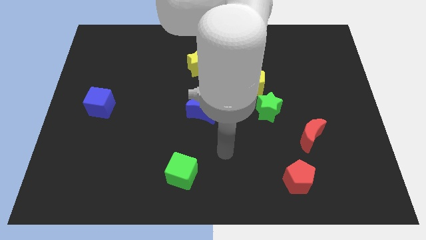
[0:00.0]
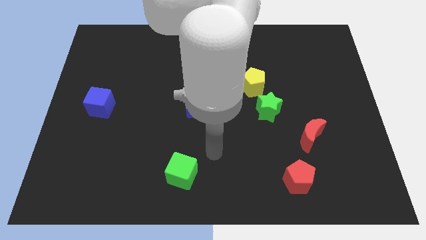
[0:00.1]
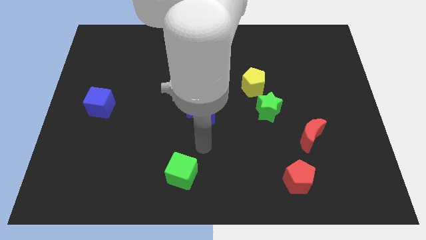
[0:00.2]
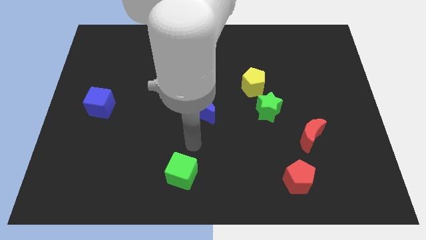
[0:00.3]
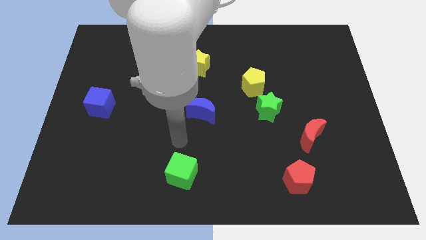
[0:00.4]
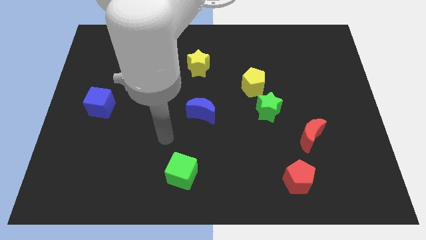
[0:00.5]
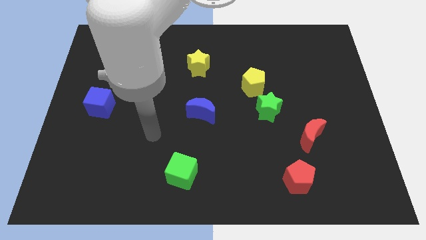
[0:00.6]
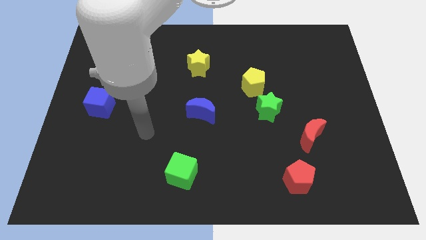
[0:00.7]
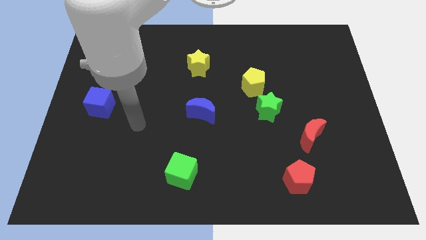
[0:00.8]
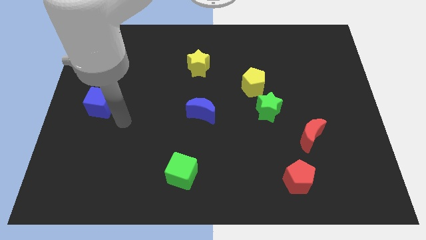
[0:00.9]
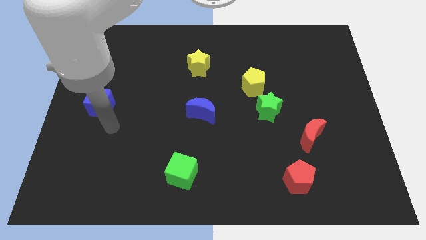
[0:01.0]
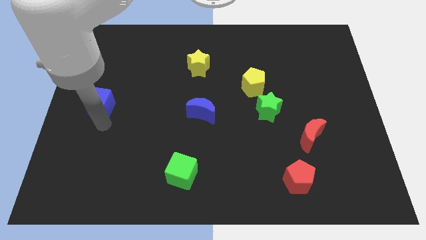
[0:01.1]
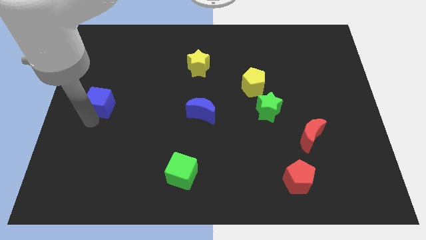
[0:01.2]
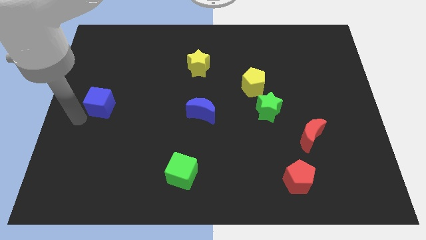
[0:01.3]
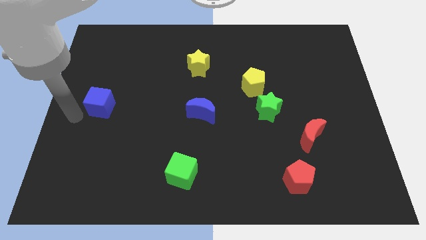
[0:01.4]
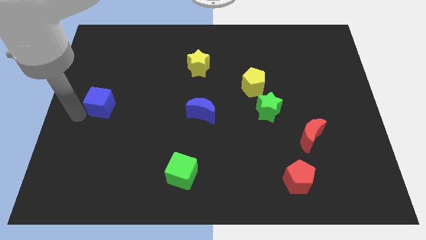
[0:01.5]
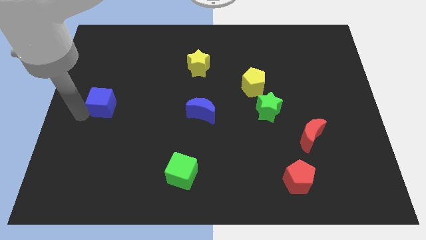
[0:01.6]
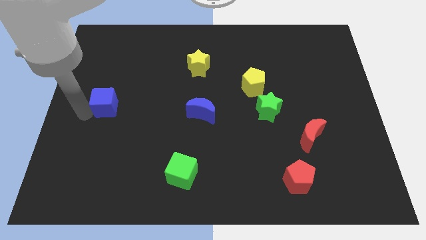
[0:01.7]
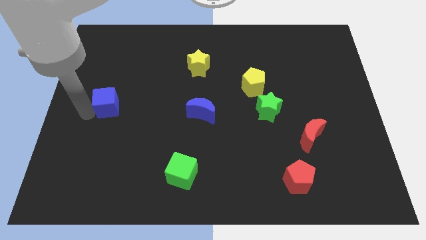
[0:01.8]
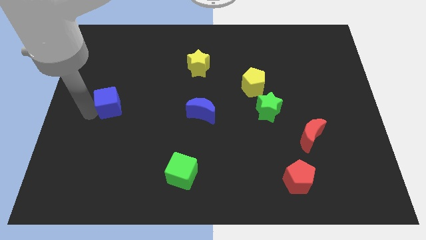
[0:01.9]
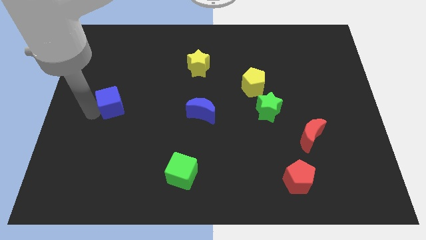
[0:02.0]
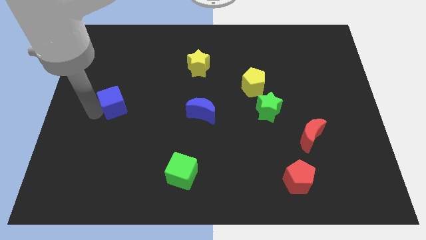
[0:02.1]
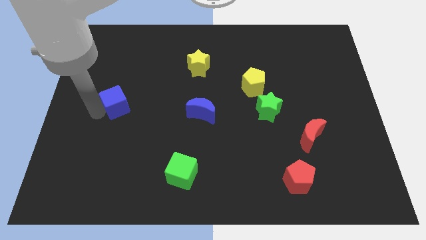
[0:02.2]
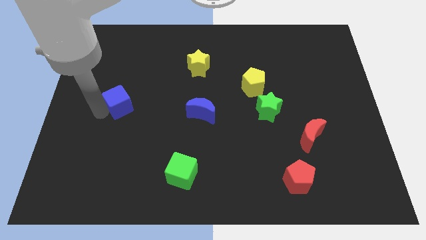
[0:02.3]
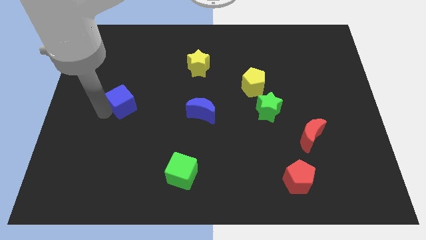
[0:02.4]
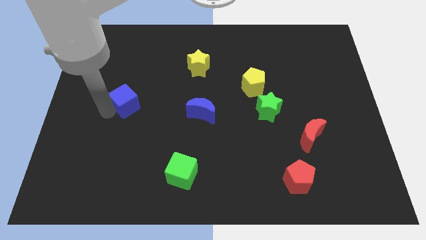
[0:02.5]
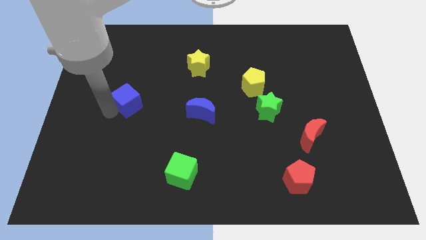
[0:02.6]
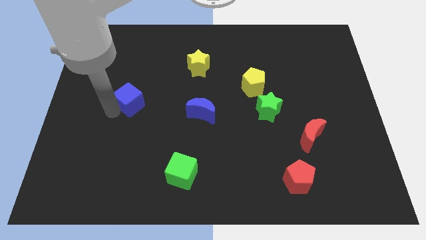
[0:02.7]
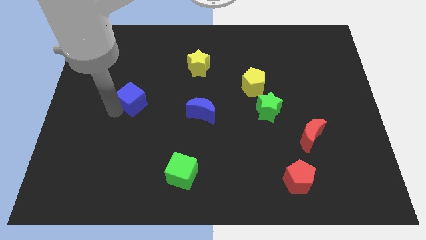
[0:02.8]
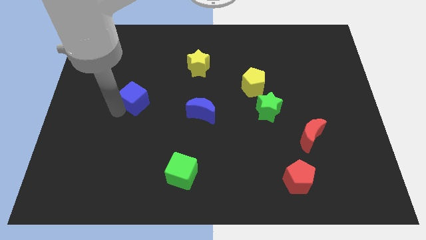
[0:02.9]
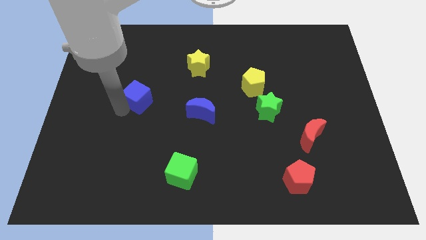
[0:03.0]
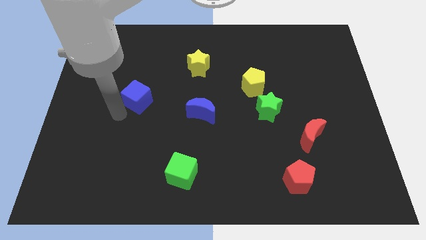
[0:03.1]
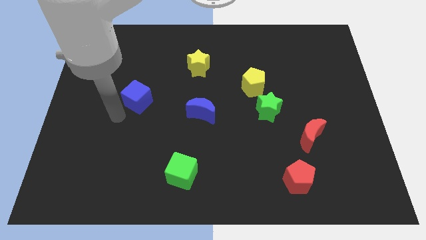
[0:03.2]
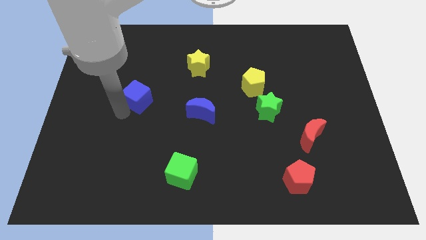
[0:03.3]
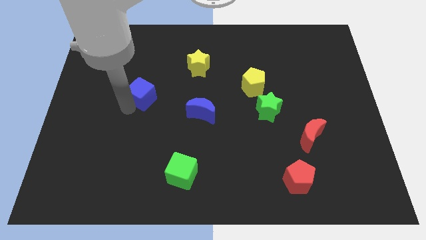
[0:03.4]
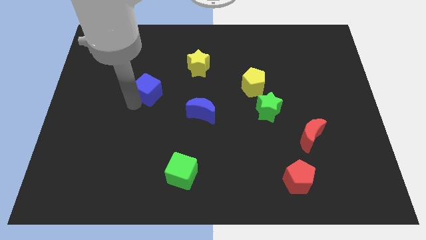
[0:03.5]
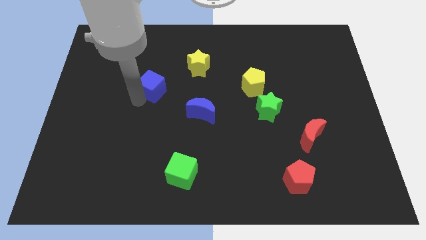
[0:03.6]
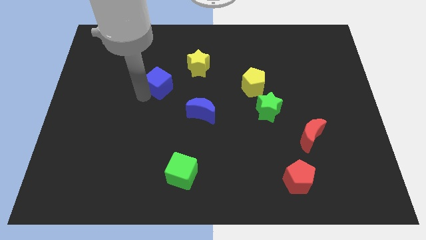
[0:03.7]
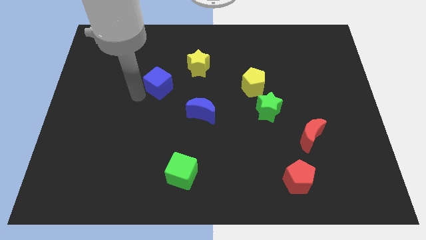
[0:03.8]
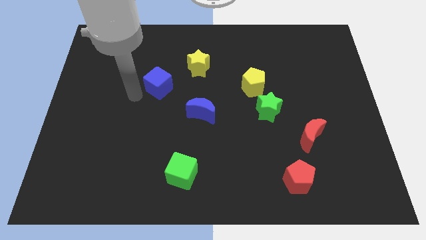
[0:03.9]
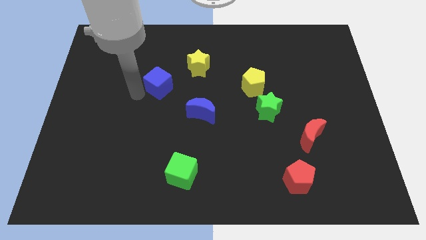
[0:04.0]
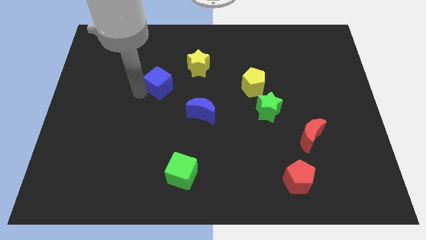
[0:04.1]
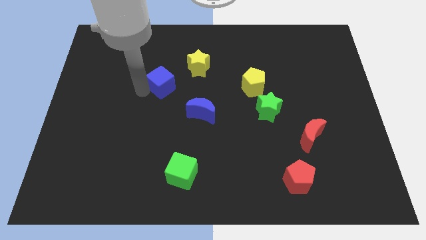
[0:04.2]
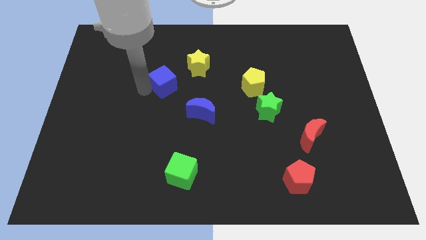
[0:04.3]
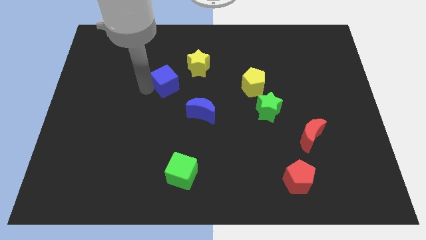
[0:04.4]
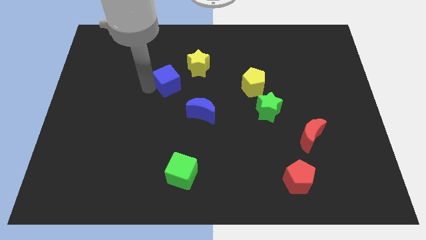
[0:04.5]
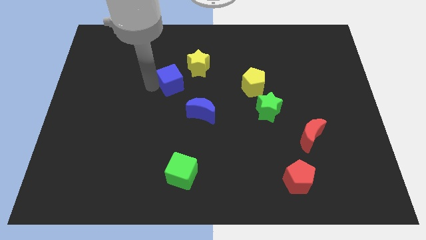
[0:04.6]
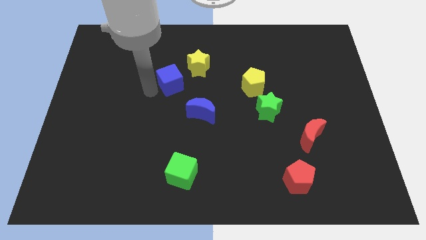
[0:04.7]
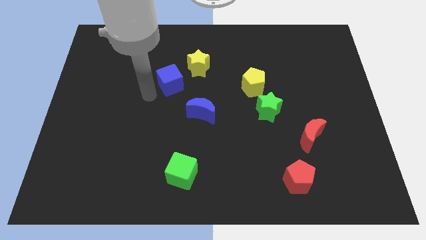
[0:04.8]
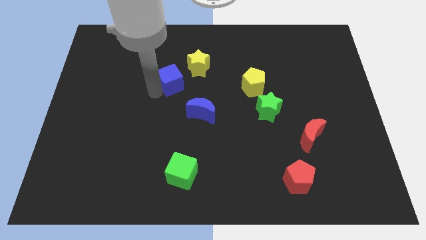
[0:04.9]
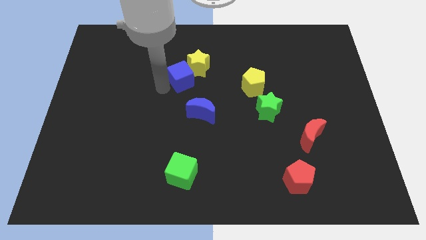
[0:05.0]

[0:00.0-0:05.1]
slide the blue cube next to the yellow star

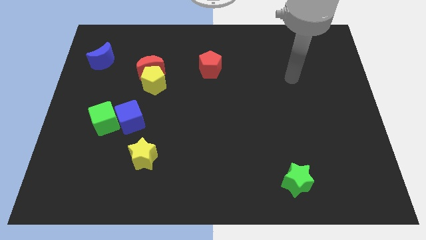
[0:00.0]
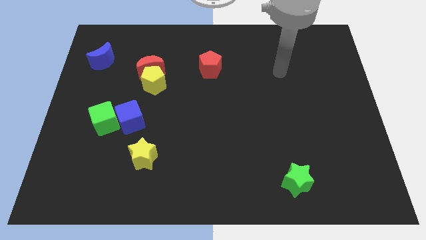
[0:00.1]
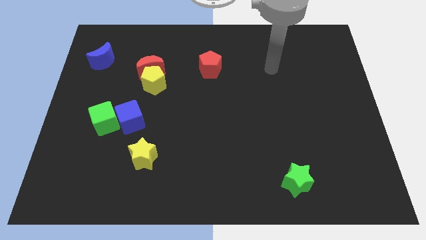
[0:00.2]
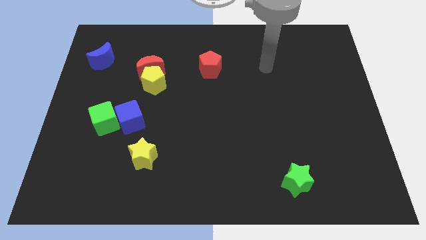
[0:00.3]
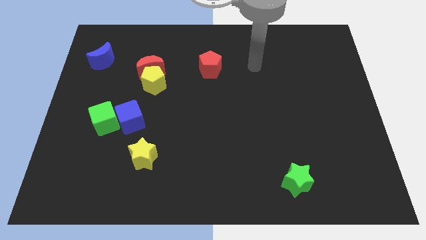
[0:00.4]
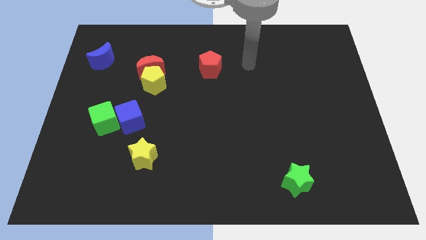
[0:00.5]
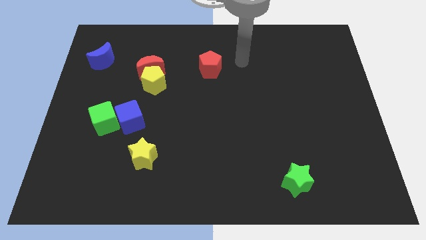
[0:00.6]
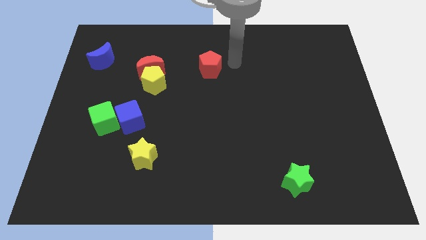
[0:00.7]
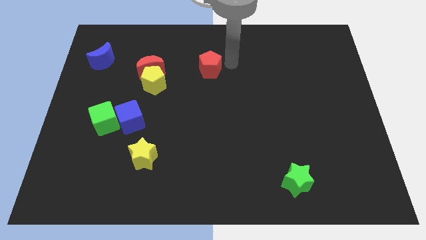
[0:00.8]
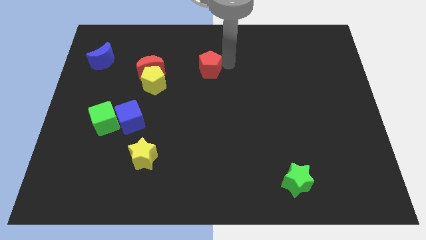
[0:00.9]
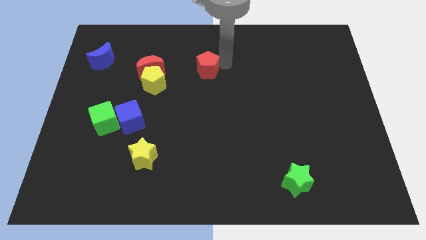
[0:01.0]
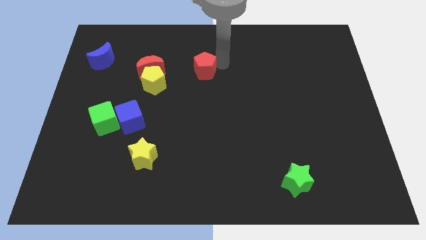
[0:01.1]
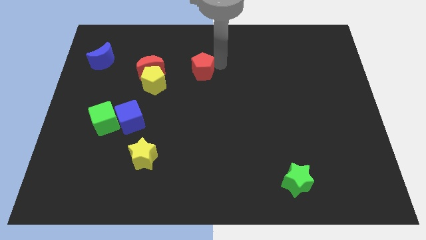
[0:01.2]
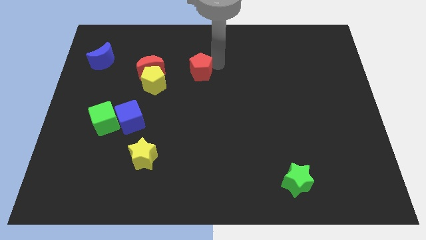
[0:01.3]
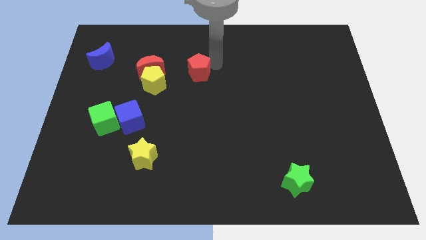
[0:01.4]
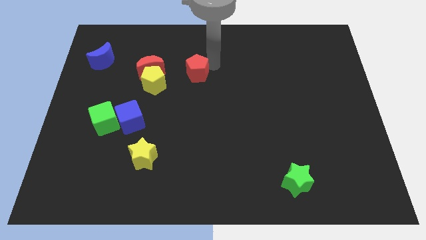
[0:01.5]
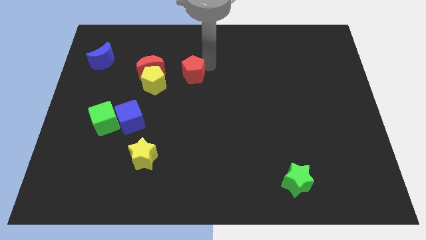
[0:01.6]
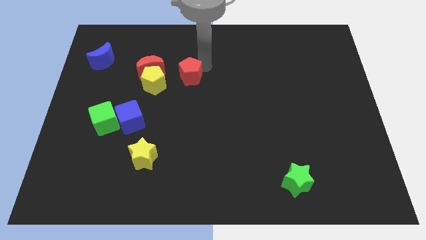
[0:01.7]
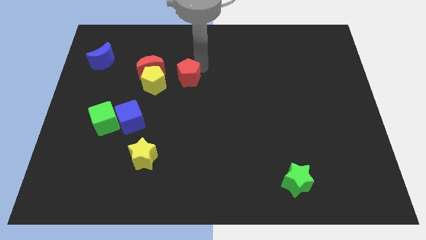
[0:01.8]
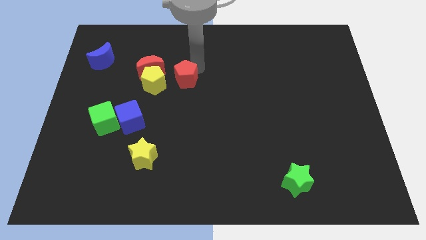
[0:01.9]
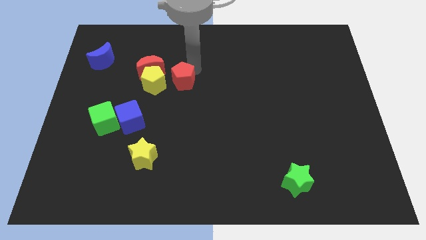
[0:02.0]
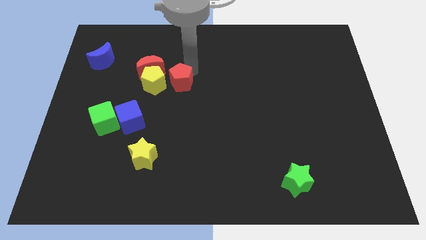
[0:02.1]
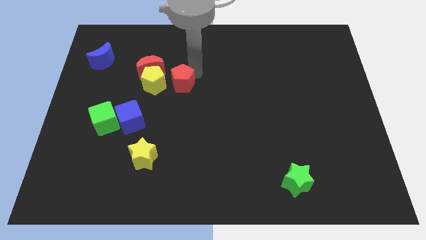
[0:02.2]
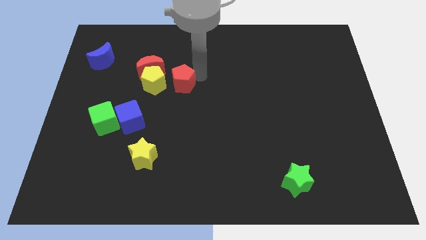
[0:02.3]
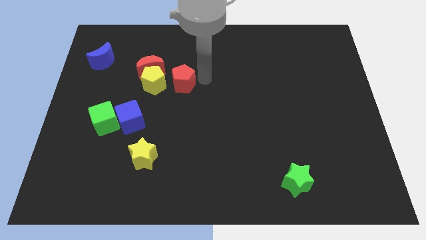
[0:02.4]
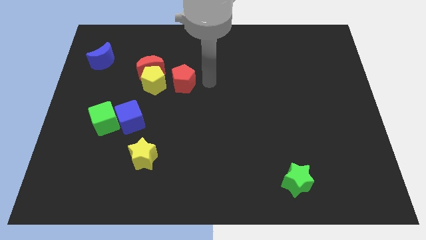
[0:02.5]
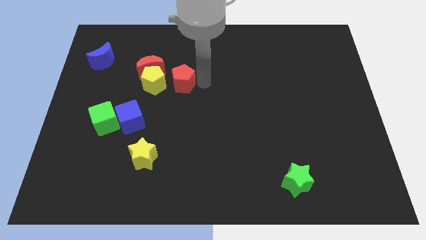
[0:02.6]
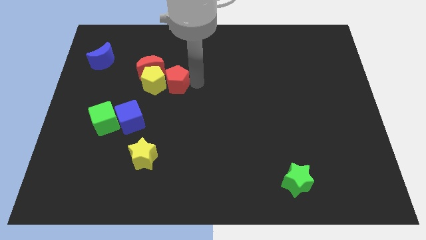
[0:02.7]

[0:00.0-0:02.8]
push the red pentagon towards the yellow pentagon
